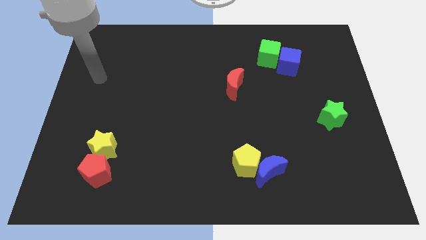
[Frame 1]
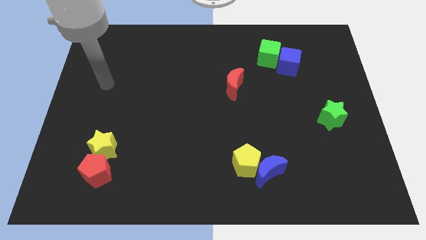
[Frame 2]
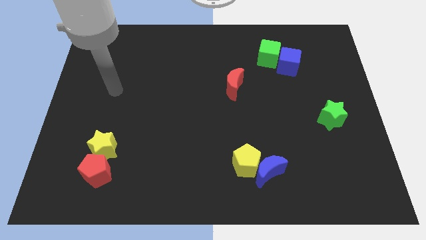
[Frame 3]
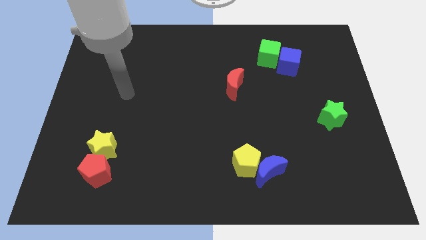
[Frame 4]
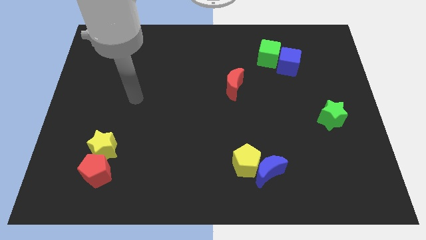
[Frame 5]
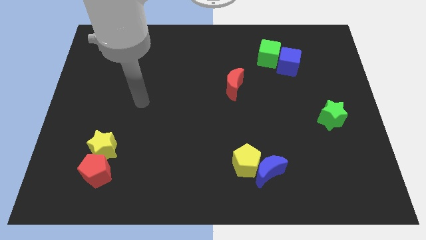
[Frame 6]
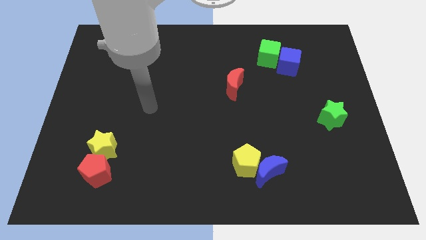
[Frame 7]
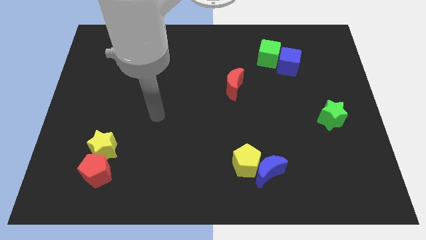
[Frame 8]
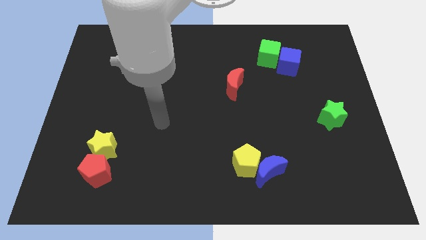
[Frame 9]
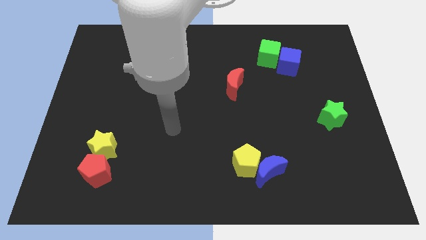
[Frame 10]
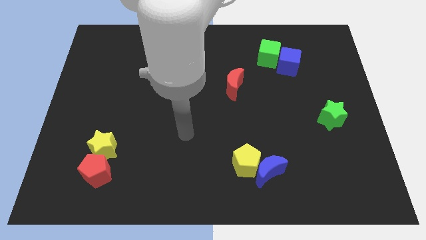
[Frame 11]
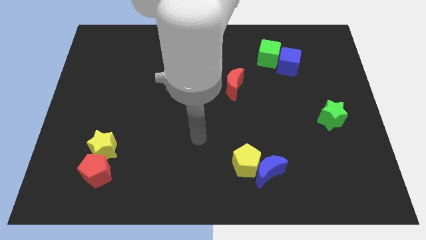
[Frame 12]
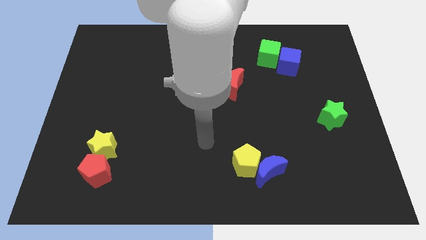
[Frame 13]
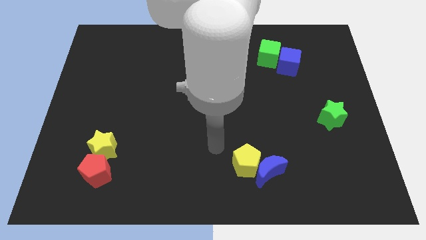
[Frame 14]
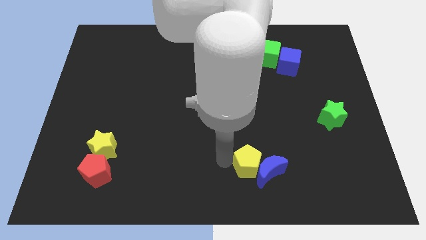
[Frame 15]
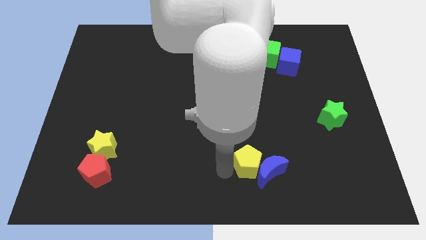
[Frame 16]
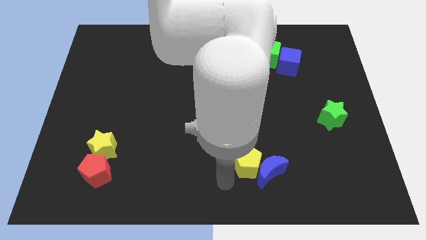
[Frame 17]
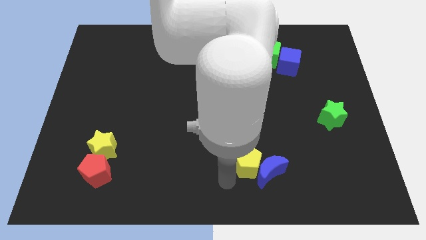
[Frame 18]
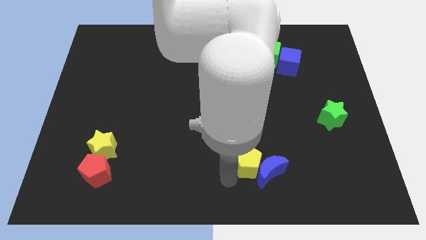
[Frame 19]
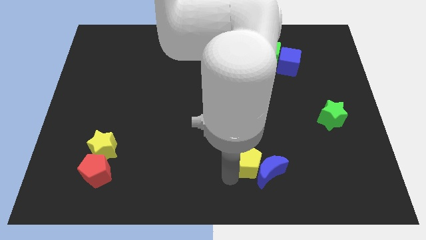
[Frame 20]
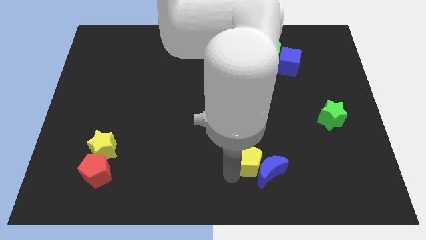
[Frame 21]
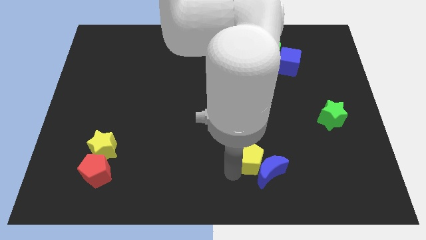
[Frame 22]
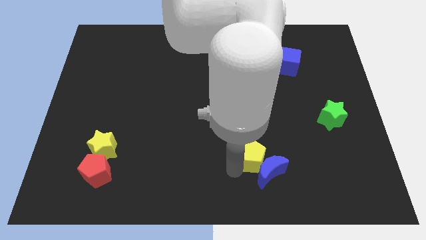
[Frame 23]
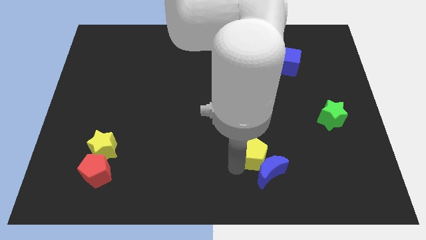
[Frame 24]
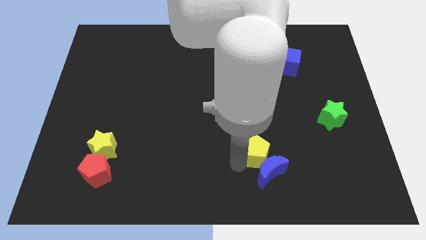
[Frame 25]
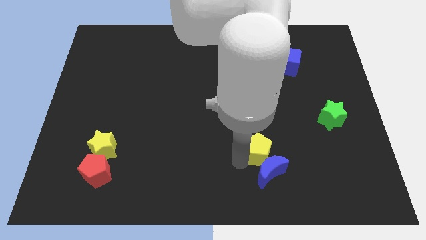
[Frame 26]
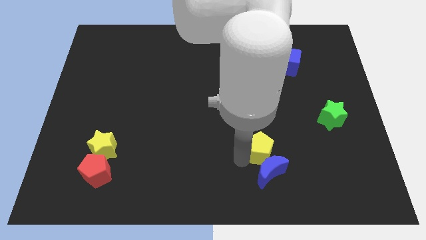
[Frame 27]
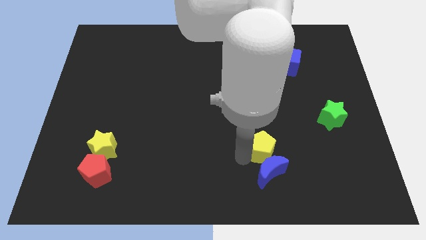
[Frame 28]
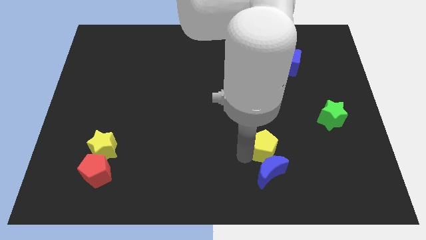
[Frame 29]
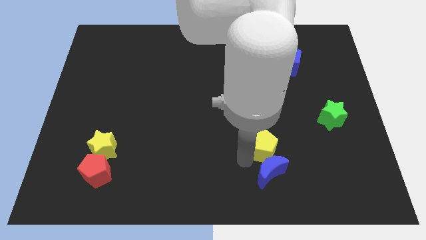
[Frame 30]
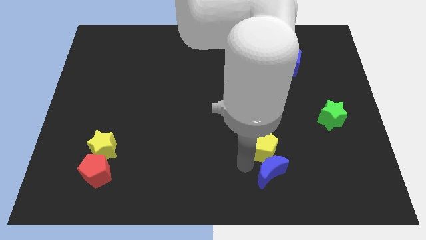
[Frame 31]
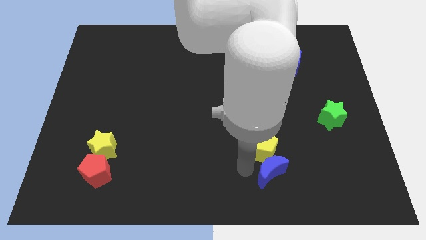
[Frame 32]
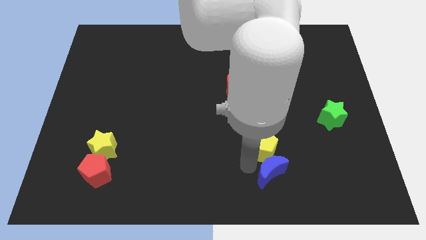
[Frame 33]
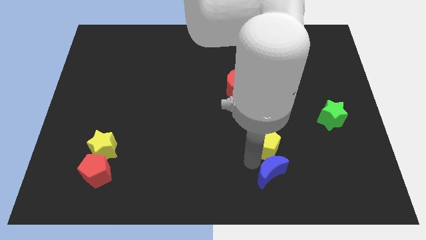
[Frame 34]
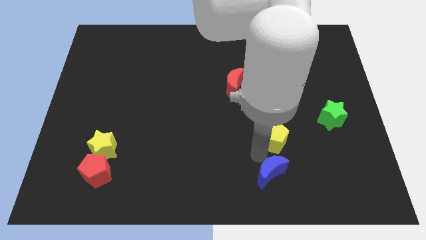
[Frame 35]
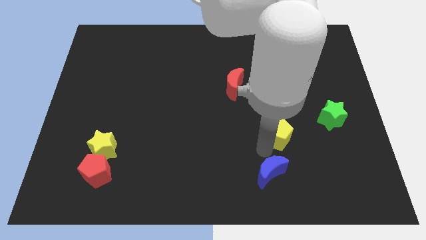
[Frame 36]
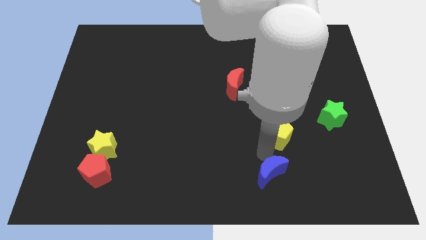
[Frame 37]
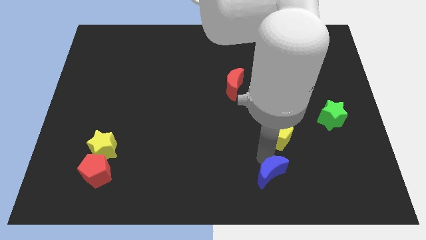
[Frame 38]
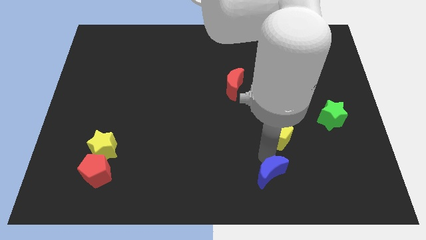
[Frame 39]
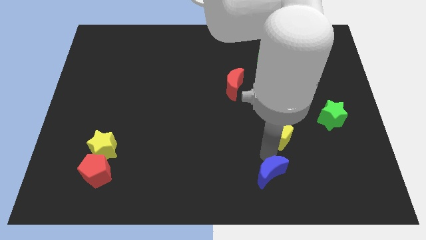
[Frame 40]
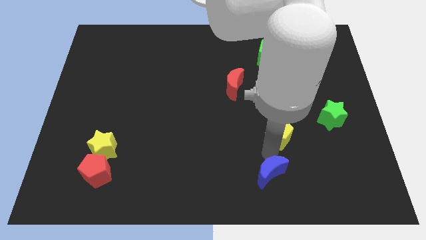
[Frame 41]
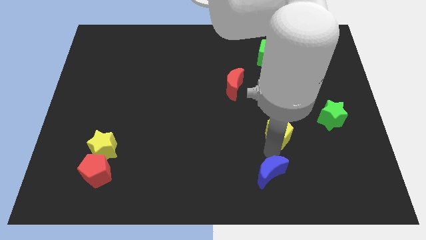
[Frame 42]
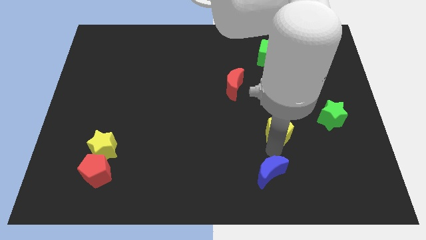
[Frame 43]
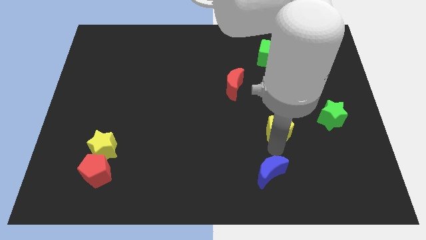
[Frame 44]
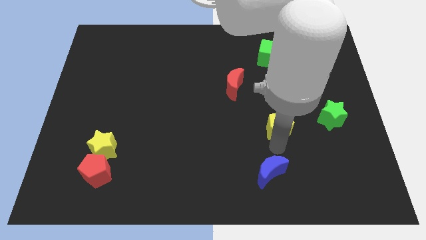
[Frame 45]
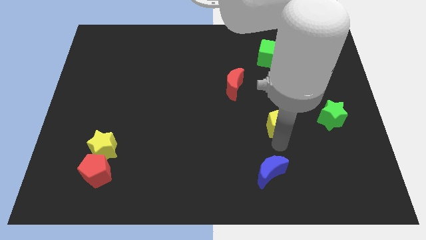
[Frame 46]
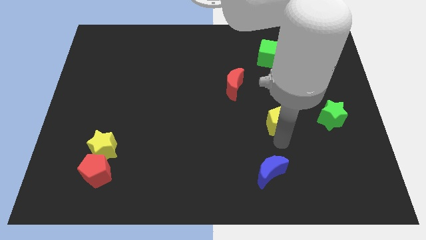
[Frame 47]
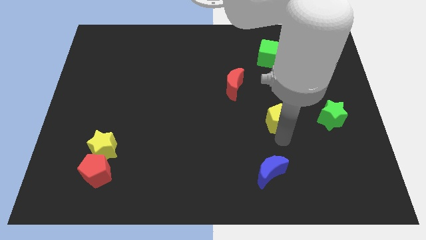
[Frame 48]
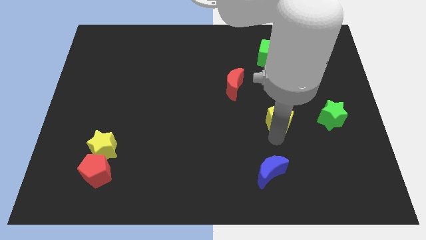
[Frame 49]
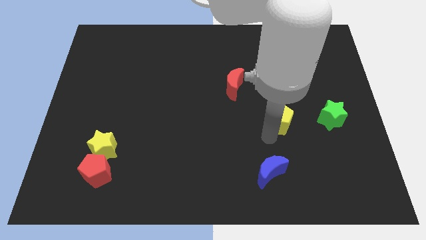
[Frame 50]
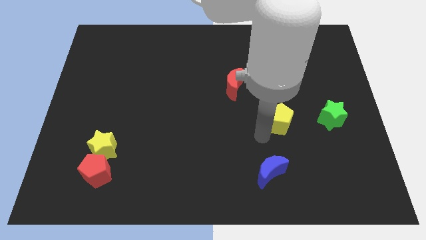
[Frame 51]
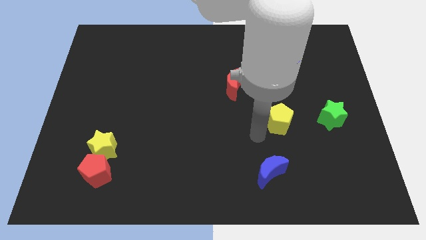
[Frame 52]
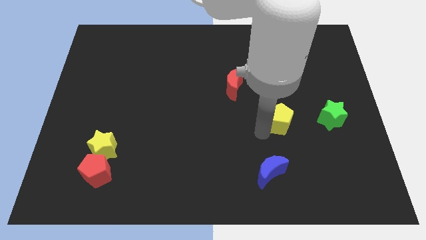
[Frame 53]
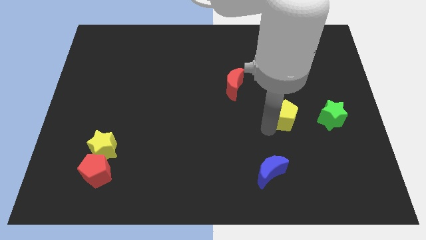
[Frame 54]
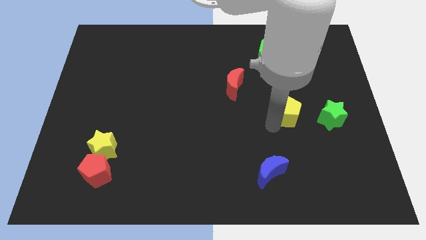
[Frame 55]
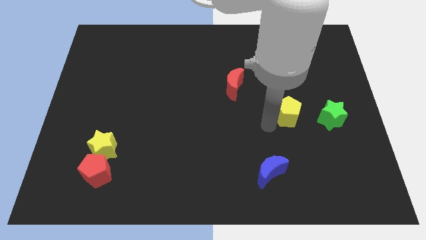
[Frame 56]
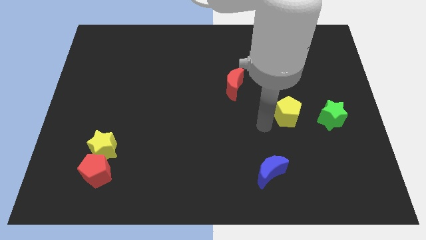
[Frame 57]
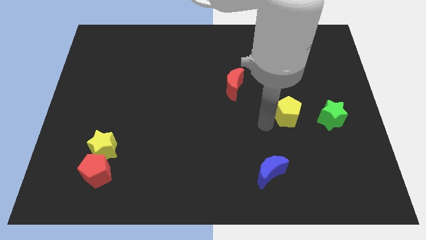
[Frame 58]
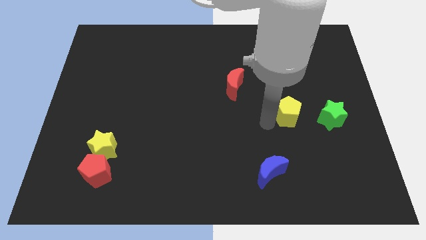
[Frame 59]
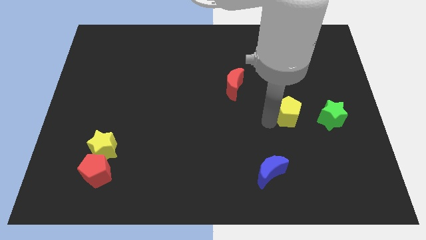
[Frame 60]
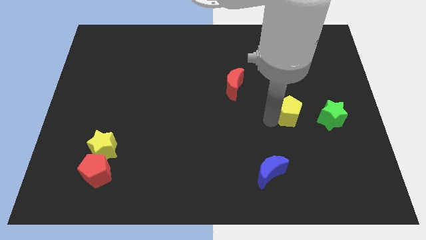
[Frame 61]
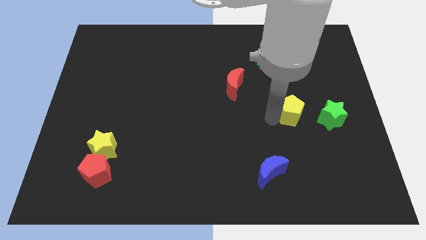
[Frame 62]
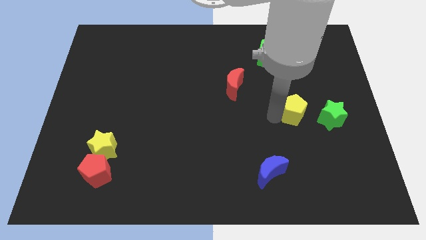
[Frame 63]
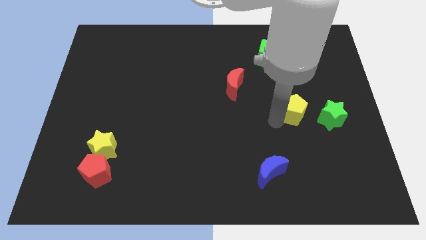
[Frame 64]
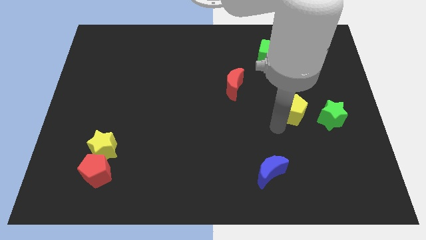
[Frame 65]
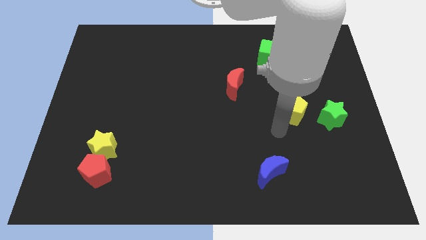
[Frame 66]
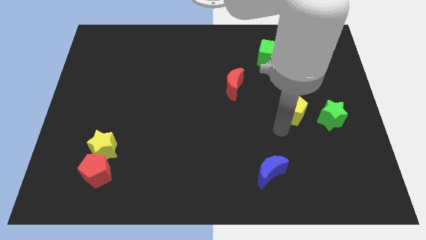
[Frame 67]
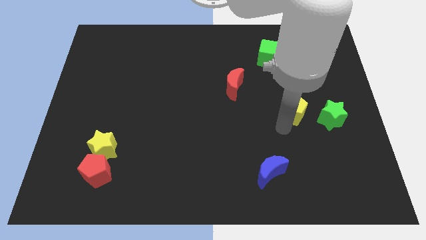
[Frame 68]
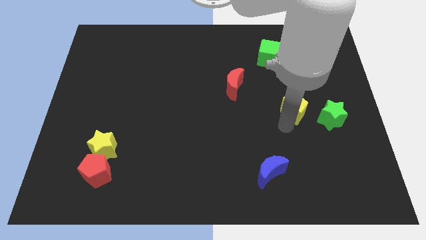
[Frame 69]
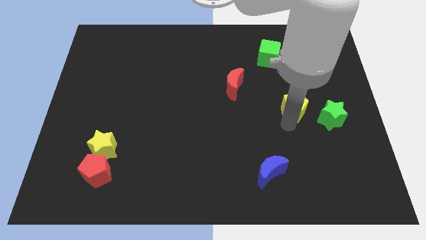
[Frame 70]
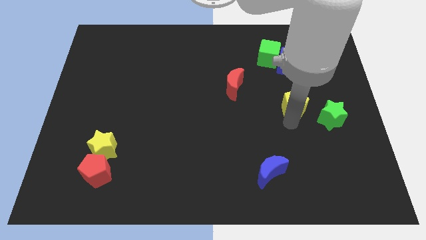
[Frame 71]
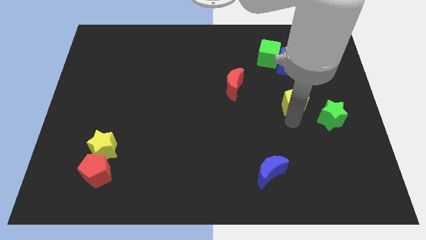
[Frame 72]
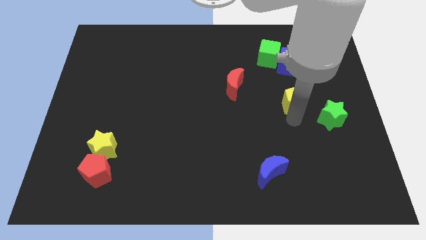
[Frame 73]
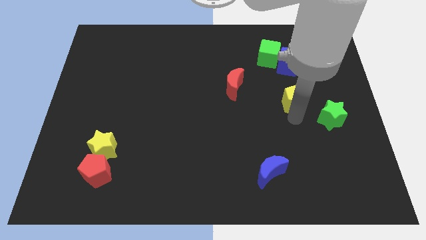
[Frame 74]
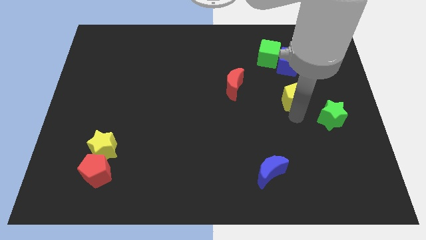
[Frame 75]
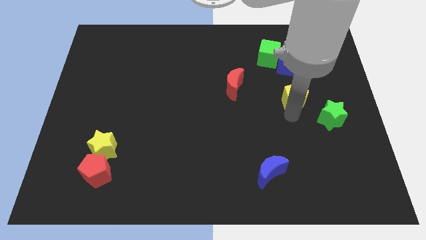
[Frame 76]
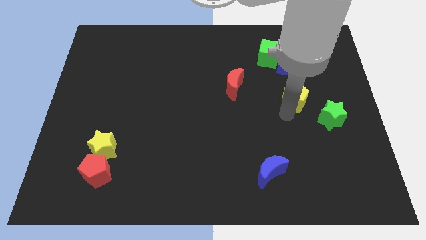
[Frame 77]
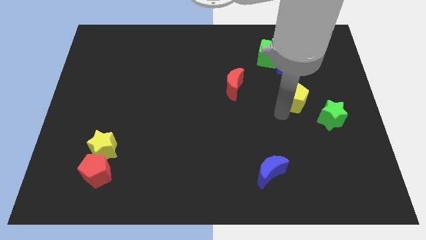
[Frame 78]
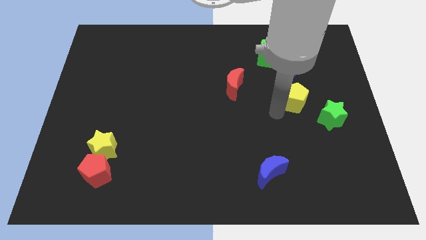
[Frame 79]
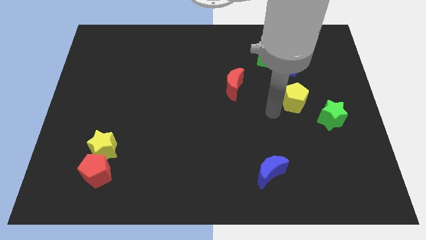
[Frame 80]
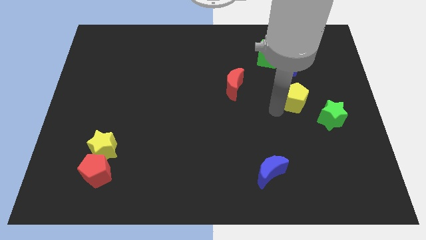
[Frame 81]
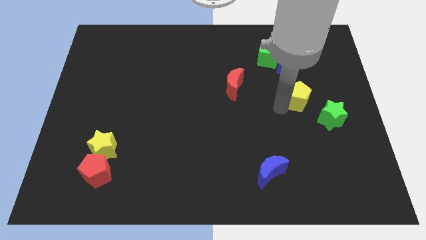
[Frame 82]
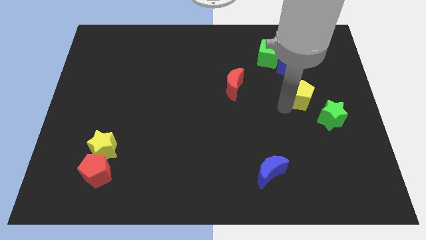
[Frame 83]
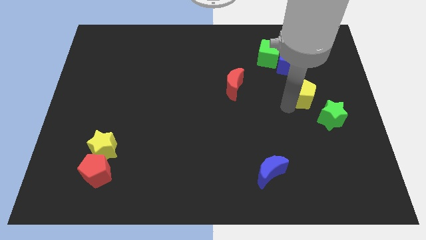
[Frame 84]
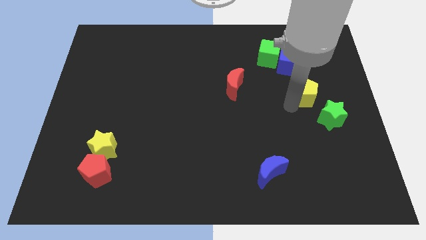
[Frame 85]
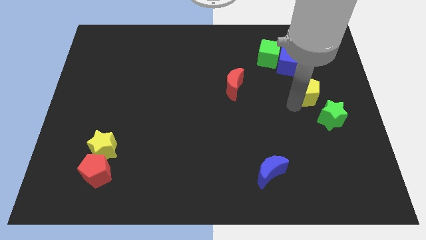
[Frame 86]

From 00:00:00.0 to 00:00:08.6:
put the yellow pentagon to the bottom right side of the blue cube
